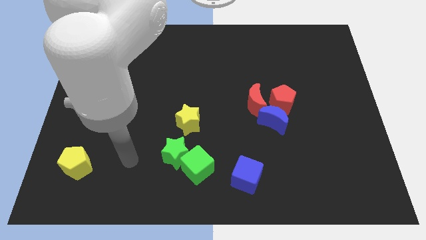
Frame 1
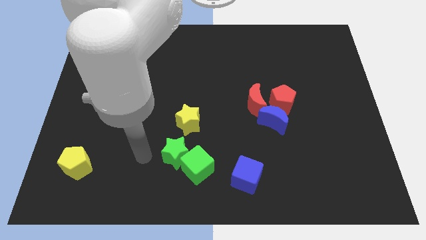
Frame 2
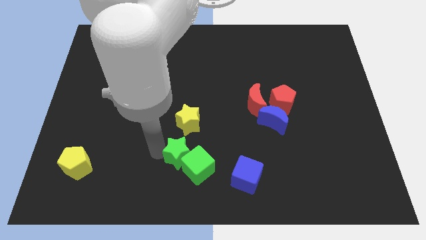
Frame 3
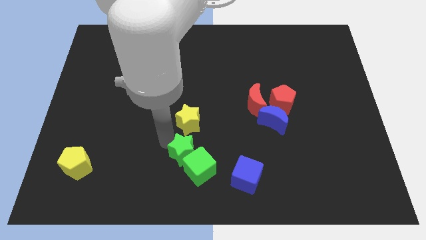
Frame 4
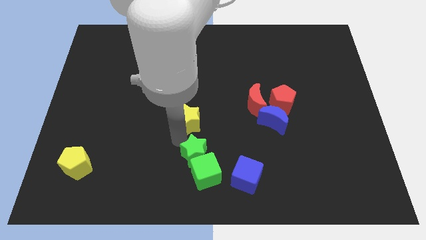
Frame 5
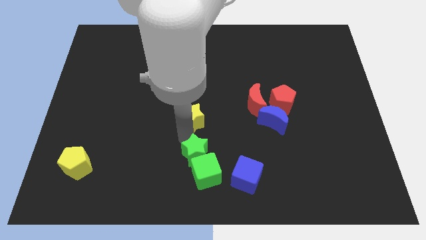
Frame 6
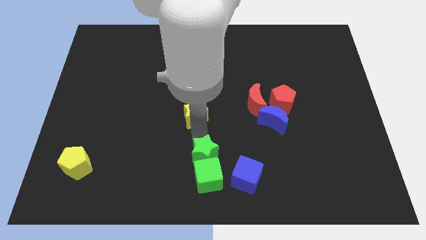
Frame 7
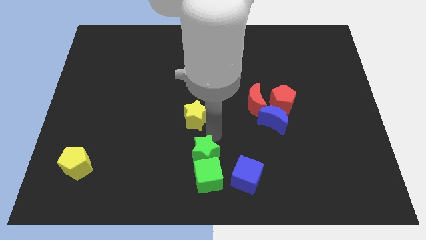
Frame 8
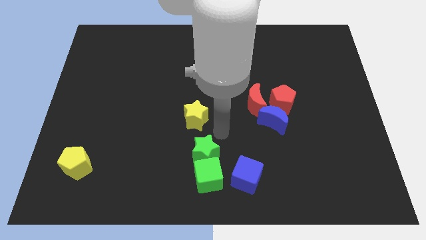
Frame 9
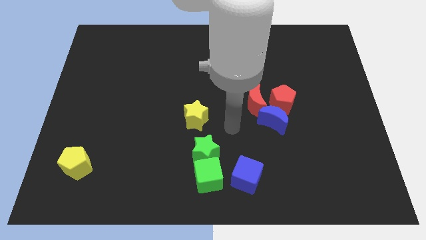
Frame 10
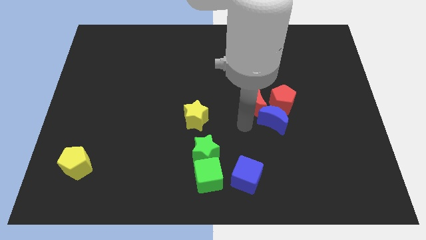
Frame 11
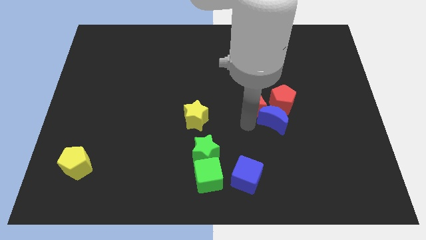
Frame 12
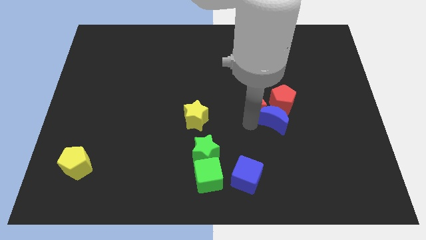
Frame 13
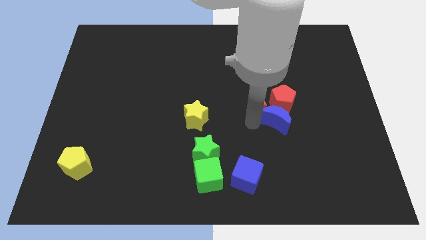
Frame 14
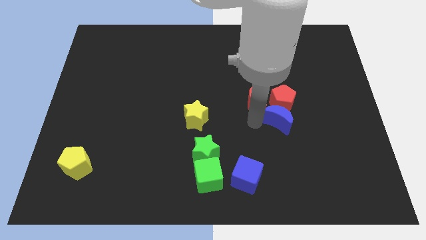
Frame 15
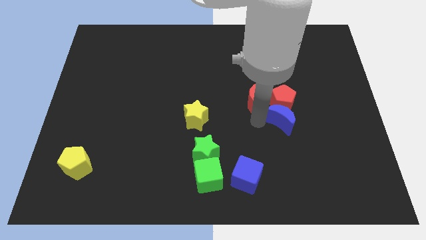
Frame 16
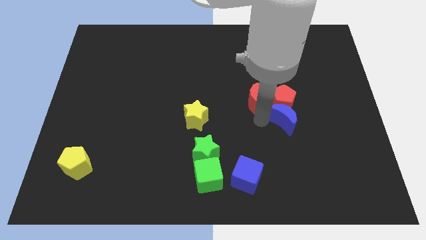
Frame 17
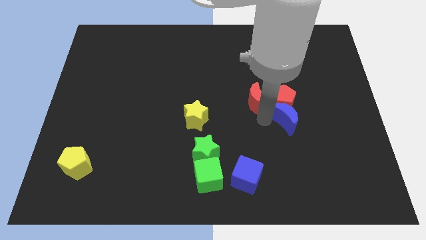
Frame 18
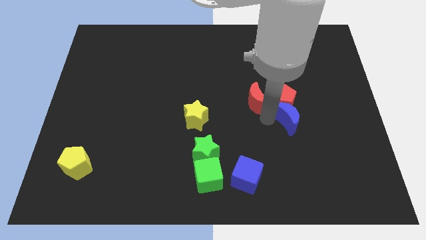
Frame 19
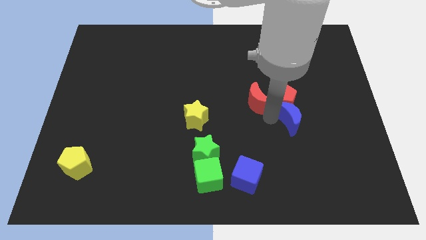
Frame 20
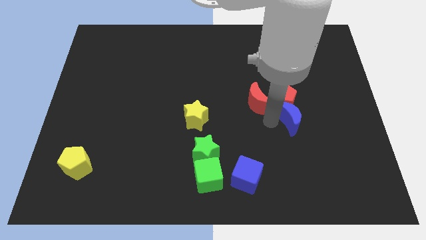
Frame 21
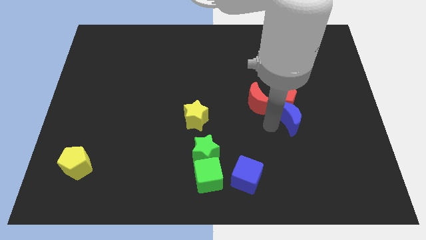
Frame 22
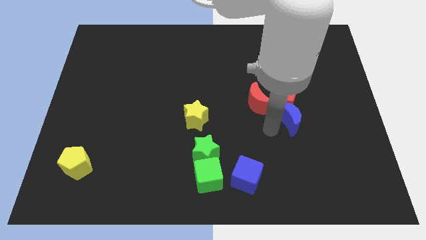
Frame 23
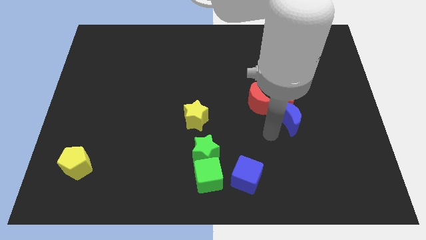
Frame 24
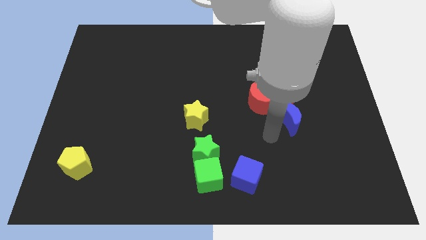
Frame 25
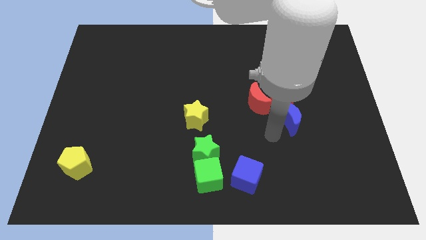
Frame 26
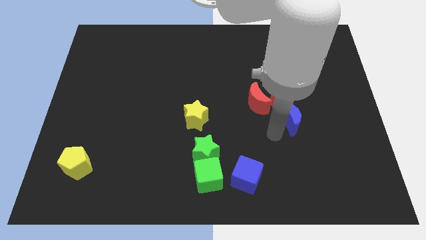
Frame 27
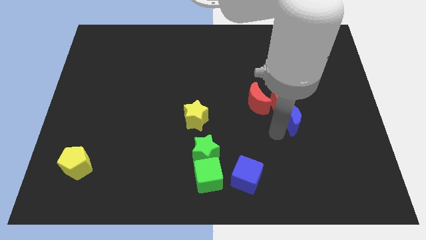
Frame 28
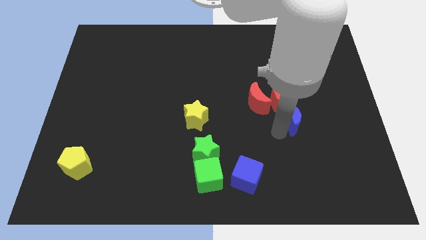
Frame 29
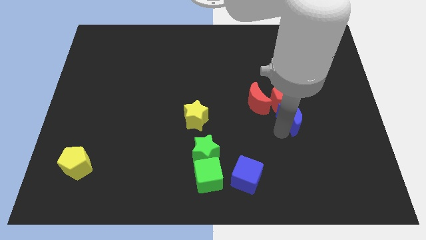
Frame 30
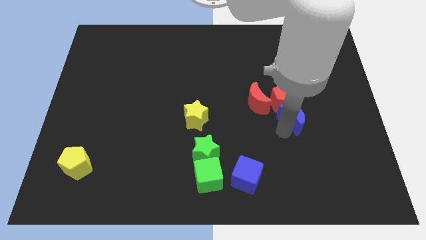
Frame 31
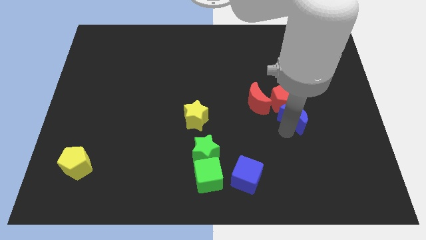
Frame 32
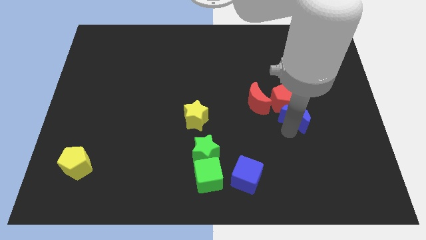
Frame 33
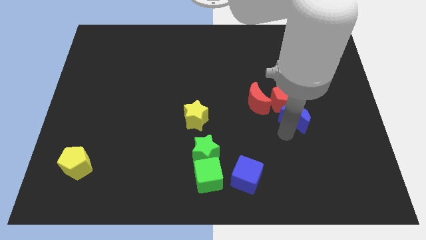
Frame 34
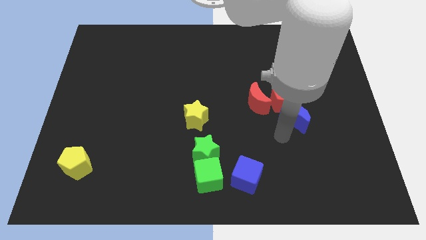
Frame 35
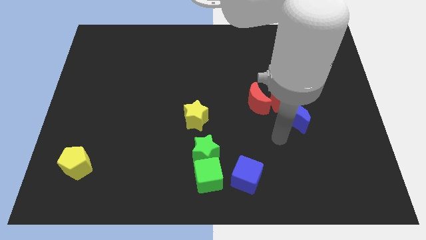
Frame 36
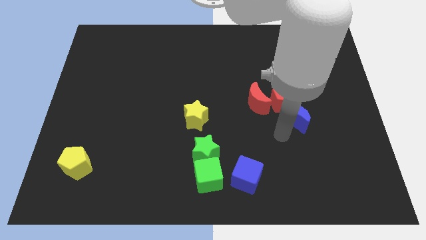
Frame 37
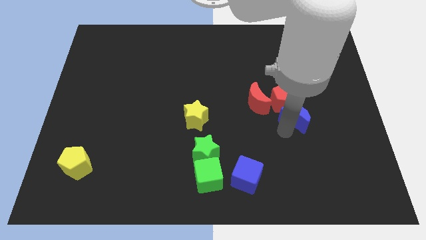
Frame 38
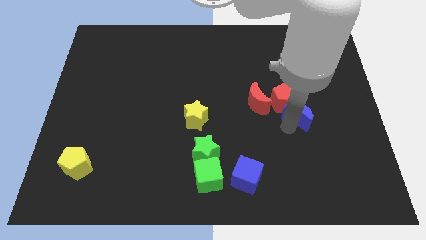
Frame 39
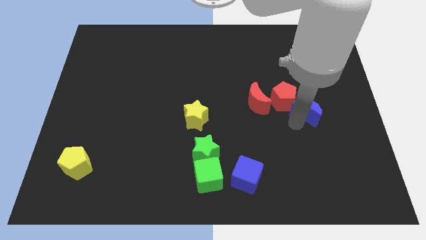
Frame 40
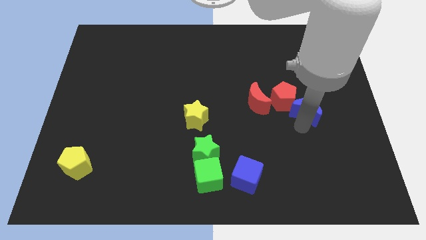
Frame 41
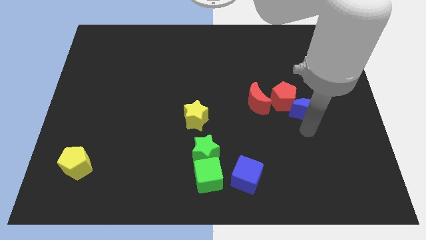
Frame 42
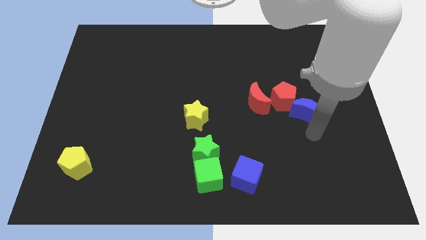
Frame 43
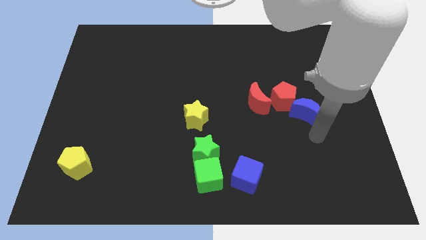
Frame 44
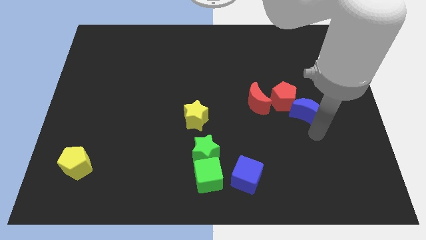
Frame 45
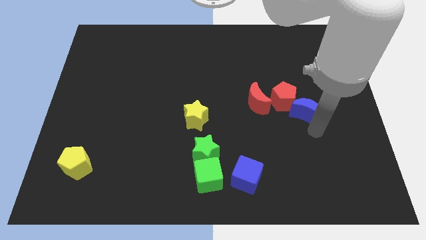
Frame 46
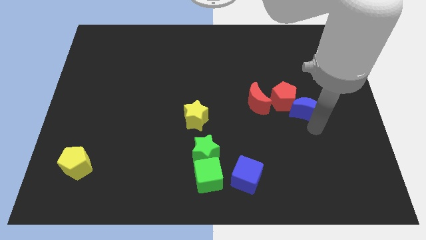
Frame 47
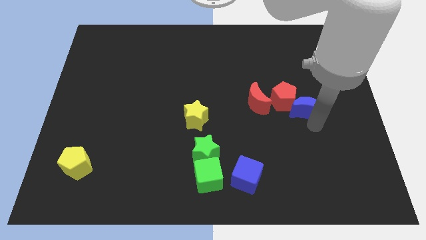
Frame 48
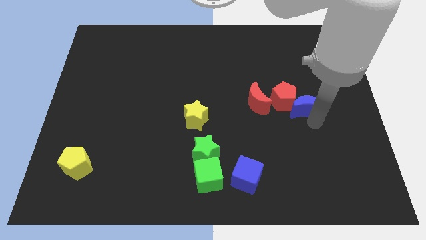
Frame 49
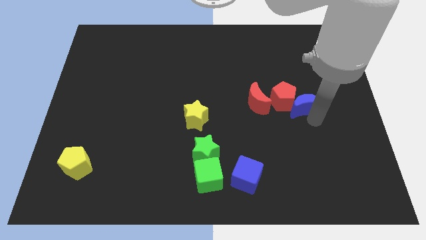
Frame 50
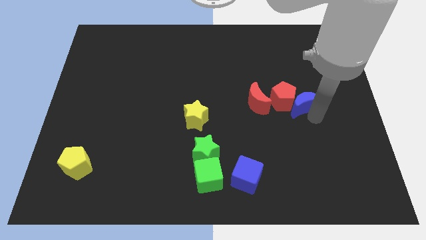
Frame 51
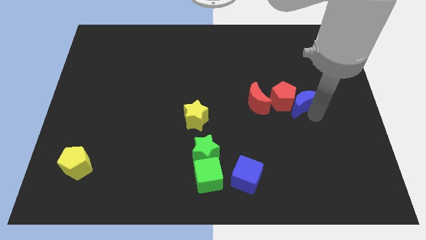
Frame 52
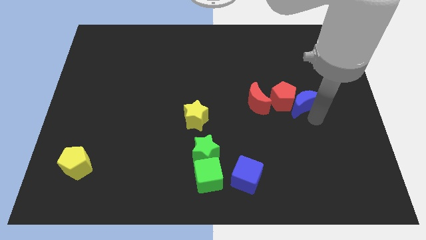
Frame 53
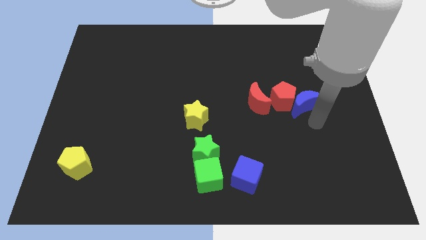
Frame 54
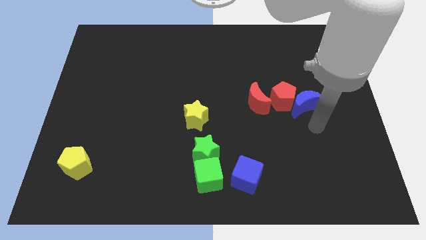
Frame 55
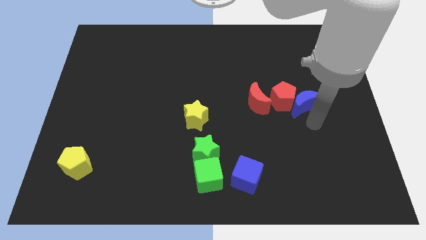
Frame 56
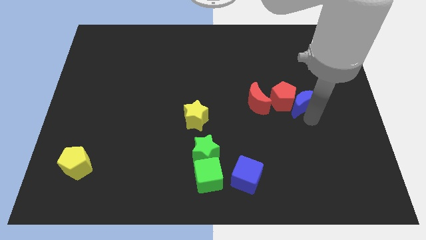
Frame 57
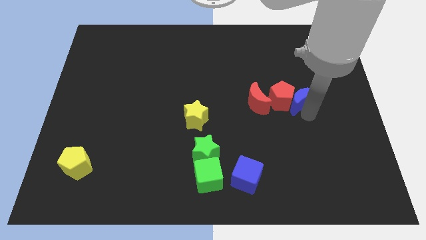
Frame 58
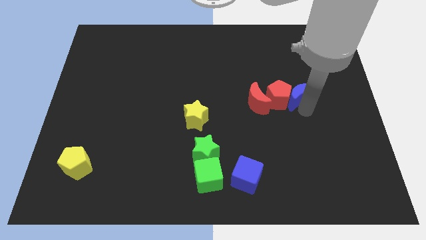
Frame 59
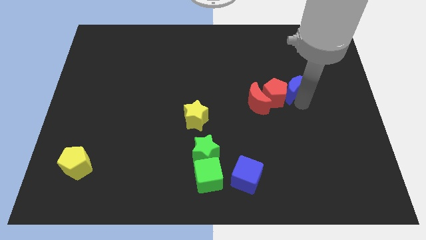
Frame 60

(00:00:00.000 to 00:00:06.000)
slide the blue moon a little bit up

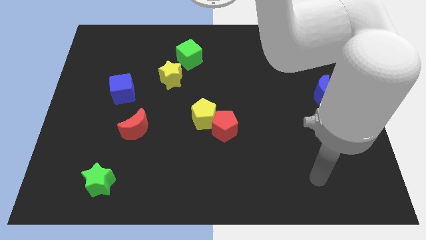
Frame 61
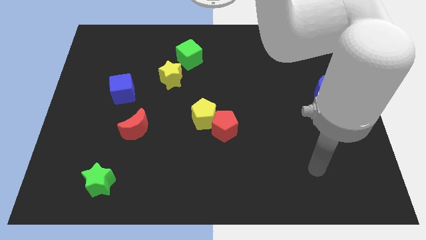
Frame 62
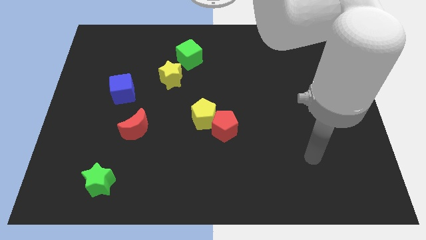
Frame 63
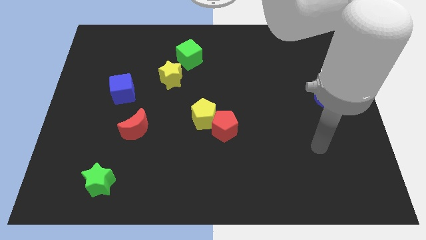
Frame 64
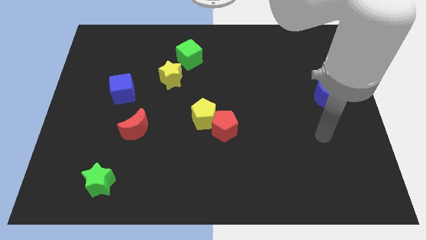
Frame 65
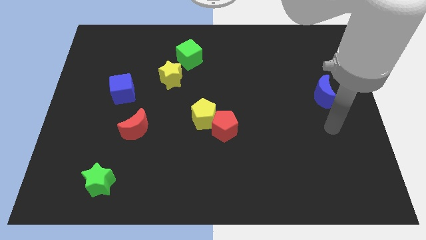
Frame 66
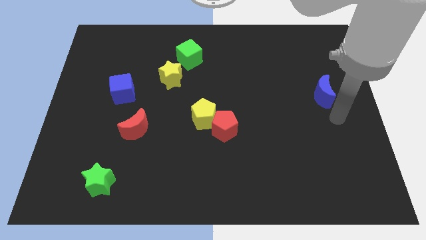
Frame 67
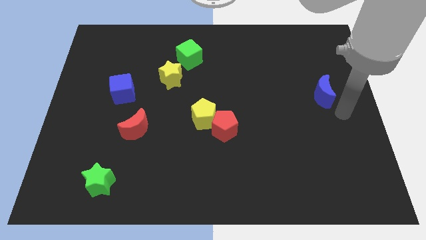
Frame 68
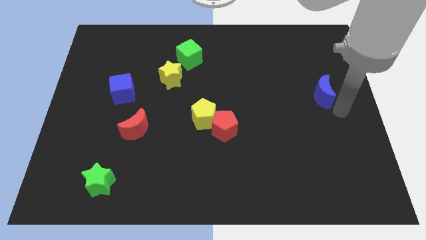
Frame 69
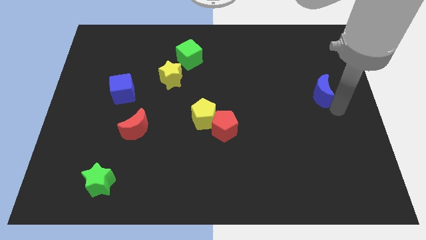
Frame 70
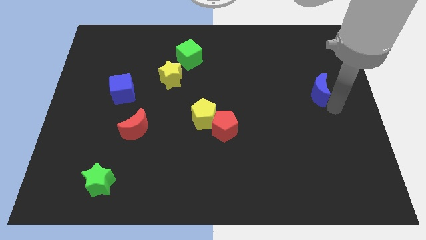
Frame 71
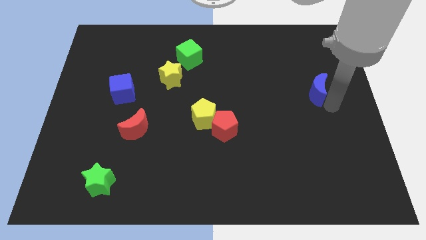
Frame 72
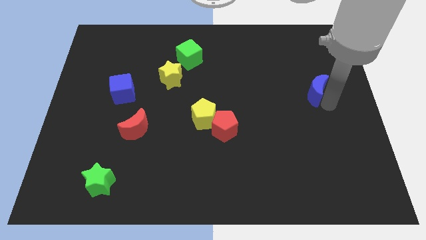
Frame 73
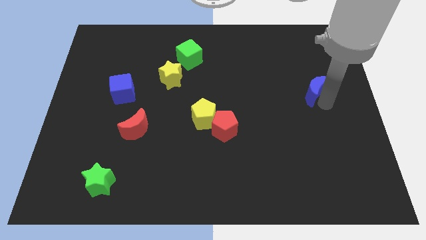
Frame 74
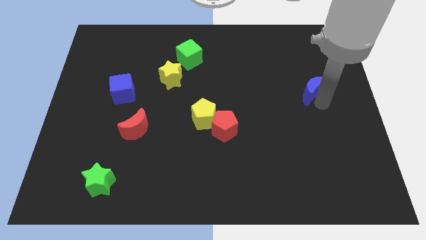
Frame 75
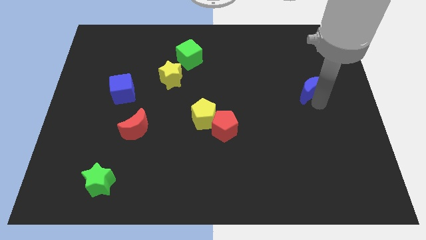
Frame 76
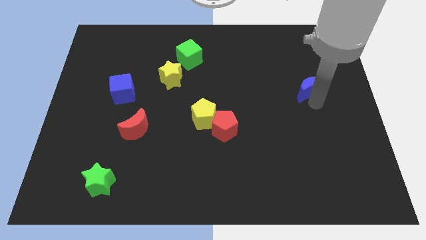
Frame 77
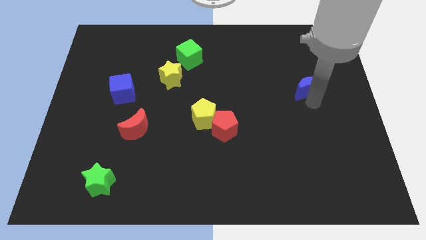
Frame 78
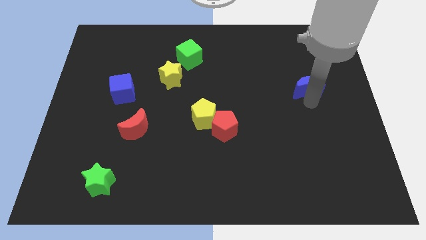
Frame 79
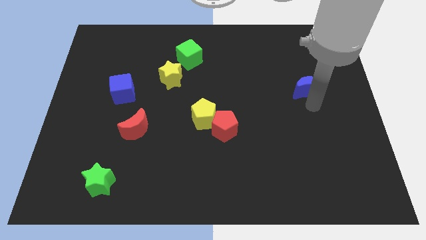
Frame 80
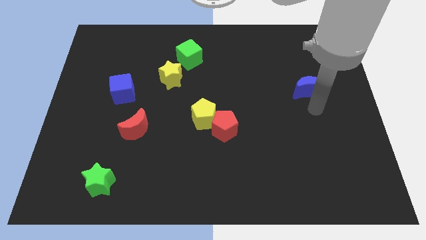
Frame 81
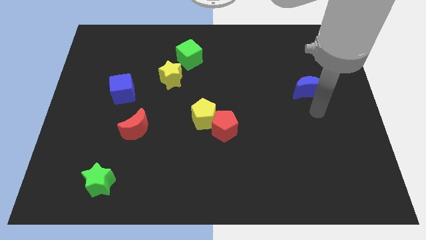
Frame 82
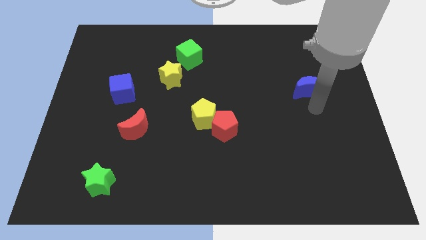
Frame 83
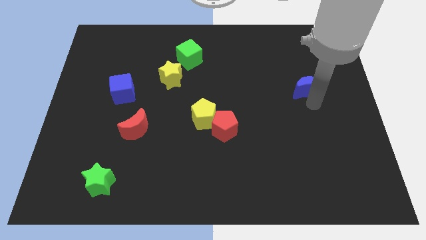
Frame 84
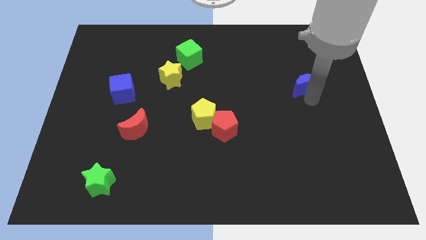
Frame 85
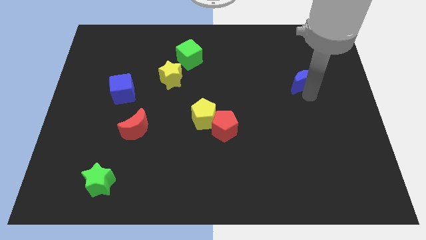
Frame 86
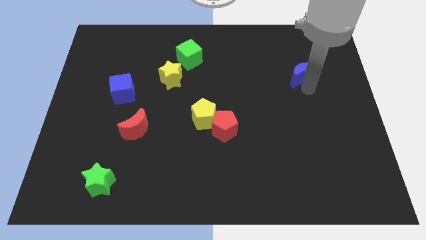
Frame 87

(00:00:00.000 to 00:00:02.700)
slightly push the blue moon diagonally up and to the left
